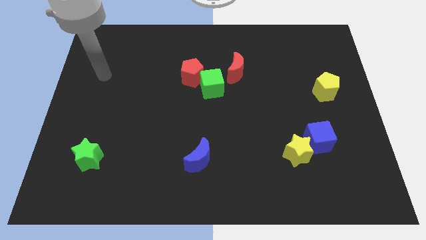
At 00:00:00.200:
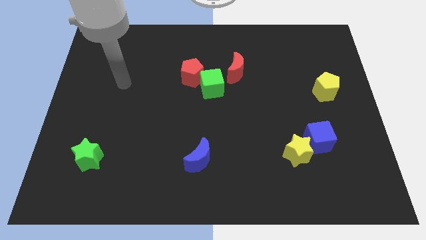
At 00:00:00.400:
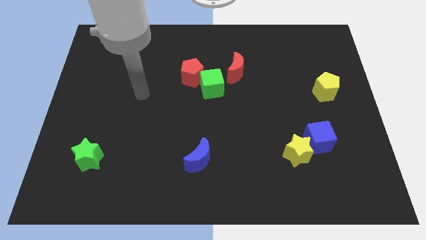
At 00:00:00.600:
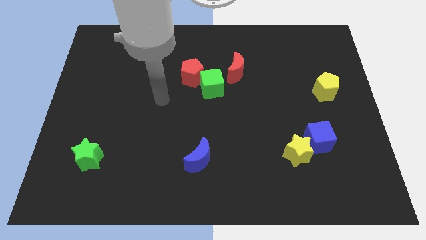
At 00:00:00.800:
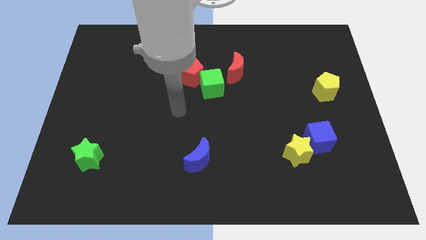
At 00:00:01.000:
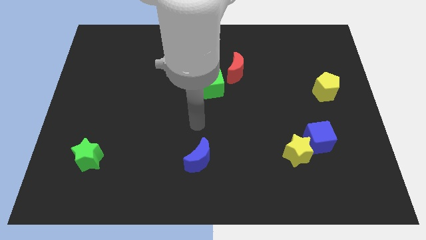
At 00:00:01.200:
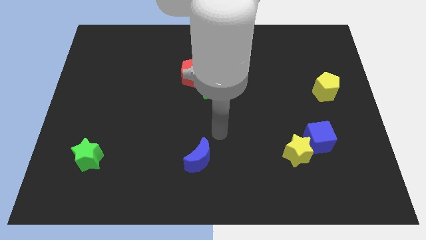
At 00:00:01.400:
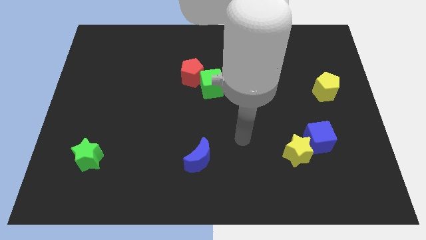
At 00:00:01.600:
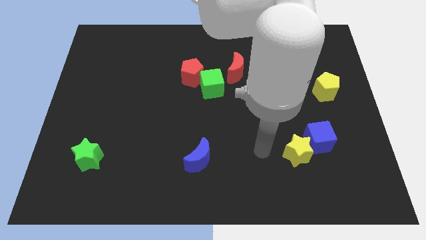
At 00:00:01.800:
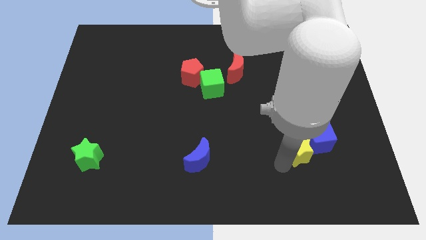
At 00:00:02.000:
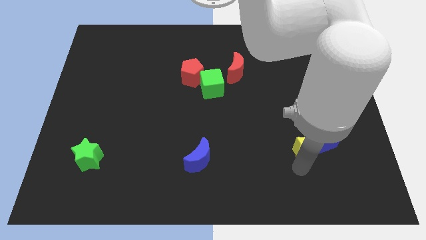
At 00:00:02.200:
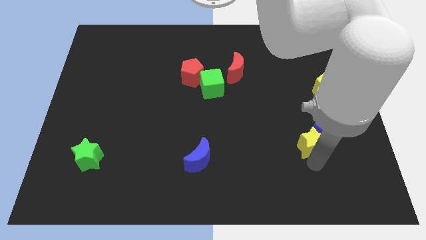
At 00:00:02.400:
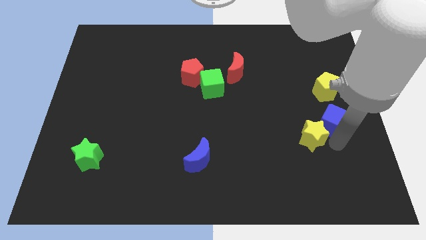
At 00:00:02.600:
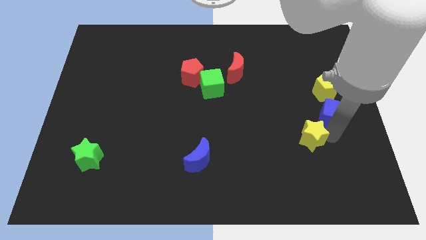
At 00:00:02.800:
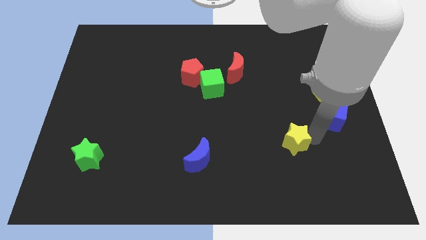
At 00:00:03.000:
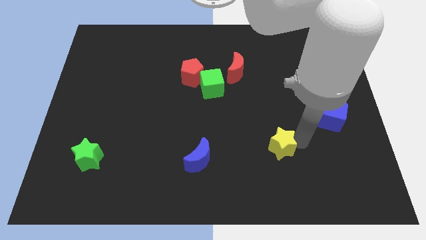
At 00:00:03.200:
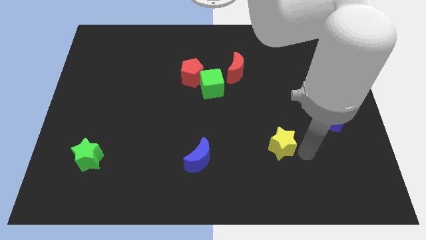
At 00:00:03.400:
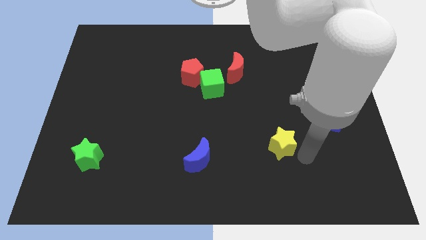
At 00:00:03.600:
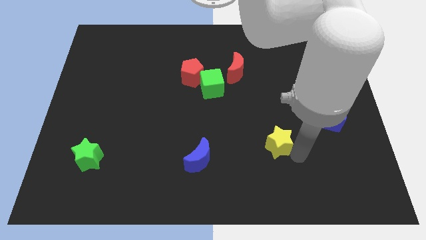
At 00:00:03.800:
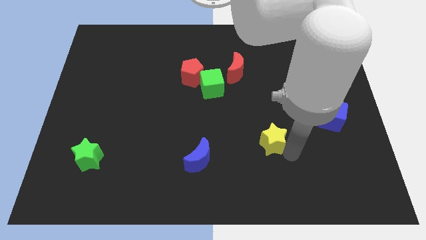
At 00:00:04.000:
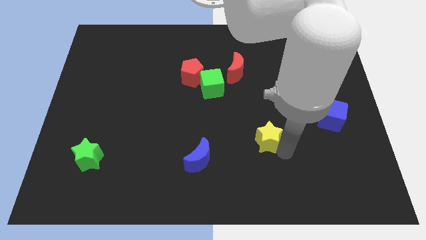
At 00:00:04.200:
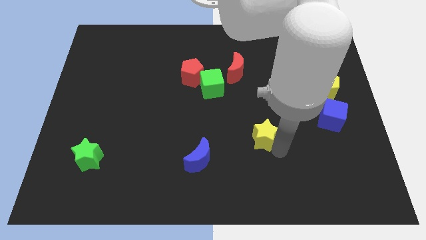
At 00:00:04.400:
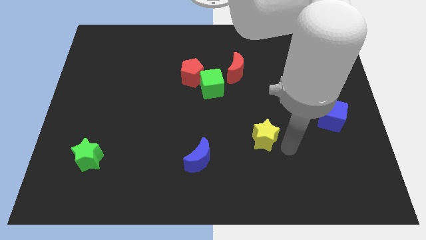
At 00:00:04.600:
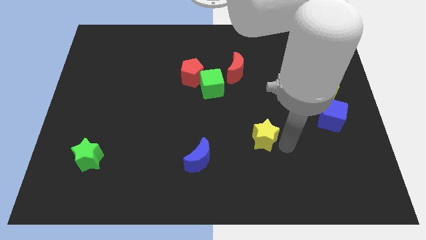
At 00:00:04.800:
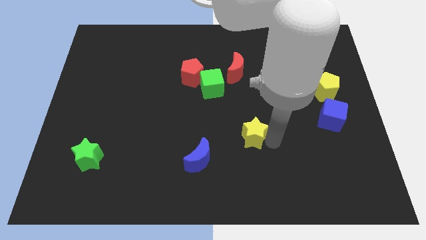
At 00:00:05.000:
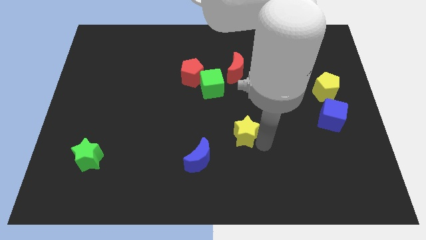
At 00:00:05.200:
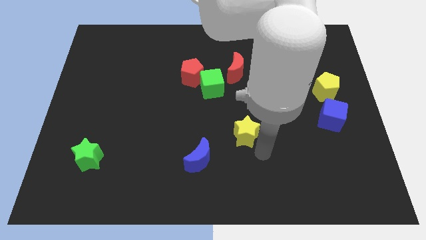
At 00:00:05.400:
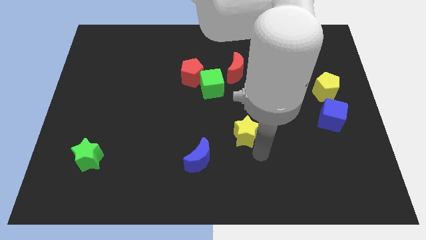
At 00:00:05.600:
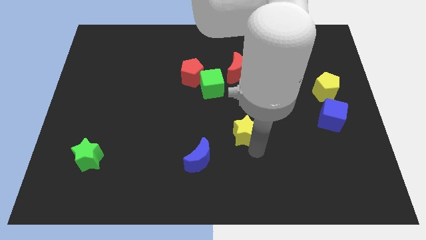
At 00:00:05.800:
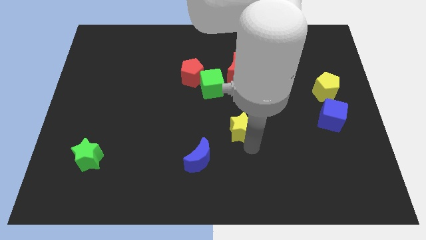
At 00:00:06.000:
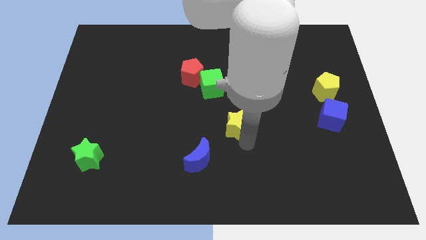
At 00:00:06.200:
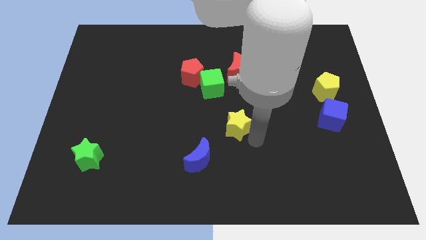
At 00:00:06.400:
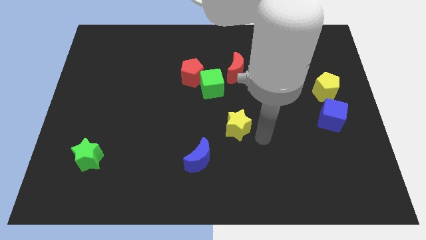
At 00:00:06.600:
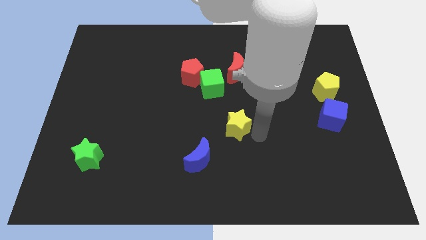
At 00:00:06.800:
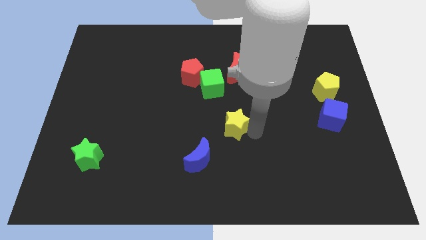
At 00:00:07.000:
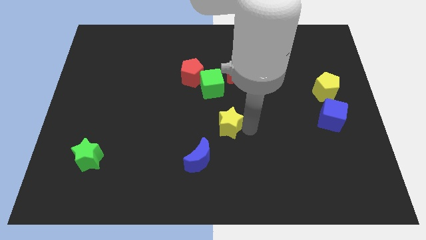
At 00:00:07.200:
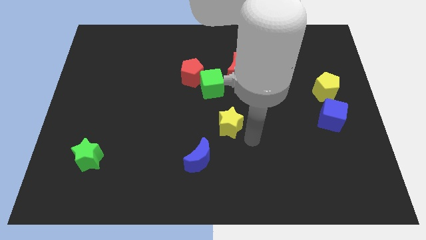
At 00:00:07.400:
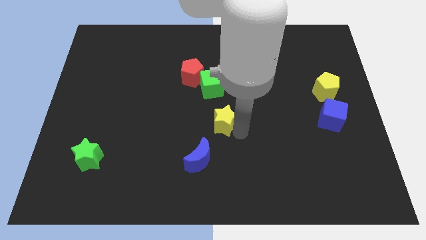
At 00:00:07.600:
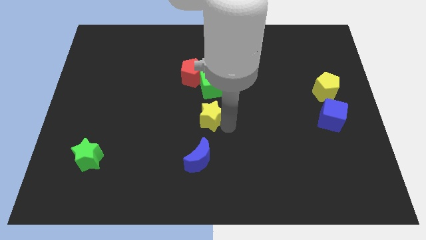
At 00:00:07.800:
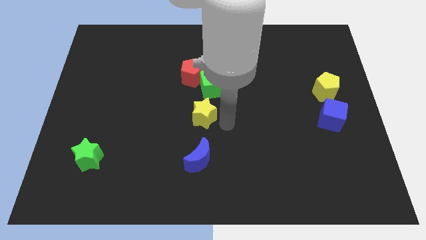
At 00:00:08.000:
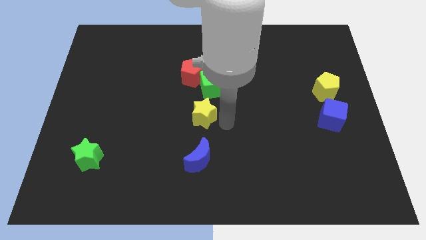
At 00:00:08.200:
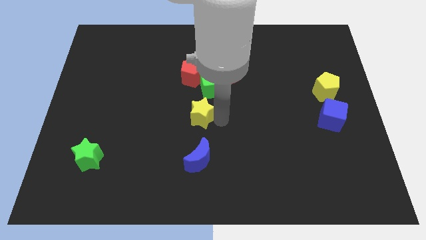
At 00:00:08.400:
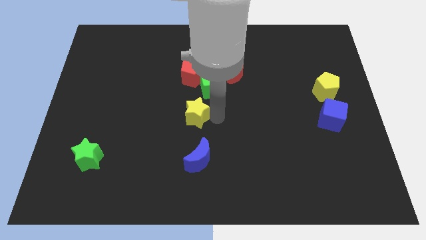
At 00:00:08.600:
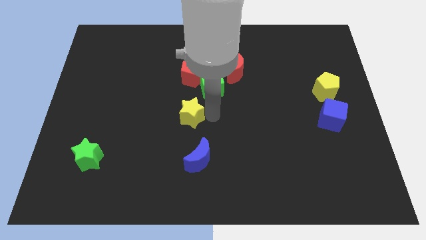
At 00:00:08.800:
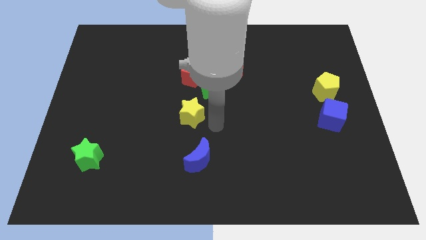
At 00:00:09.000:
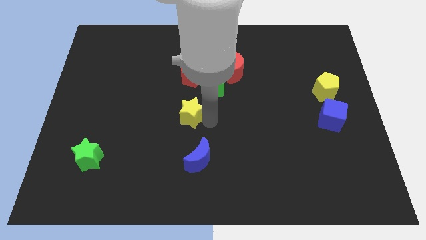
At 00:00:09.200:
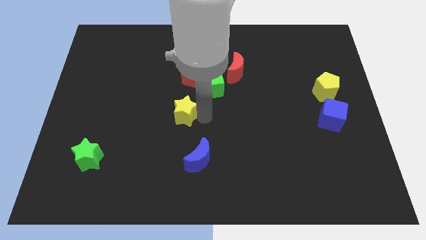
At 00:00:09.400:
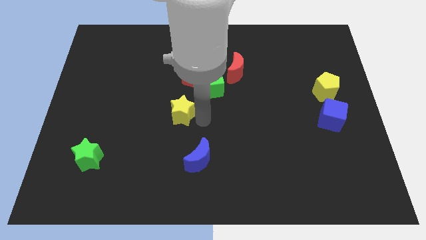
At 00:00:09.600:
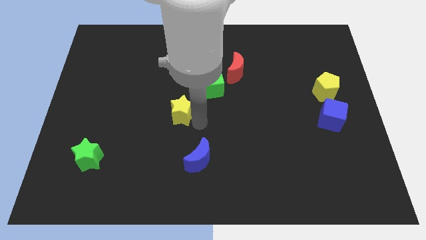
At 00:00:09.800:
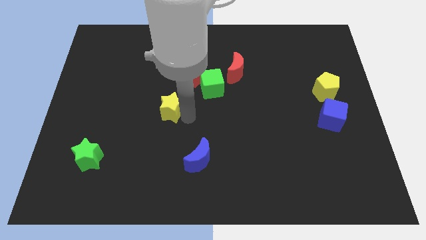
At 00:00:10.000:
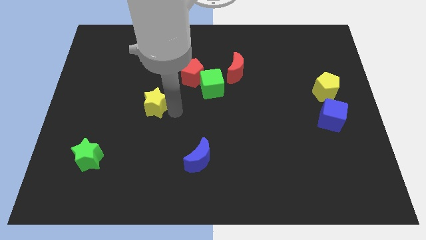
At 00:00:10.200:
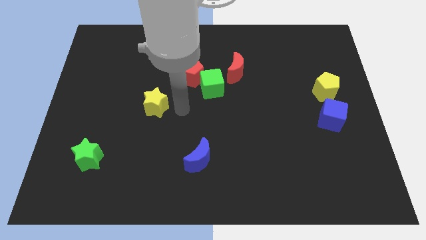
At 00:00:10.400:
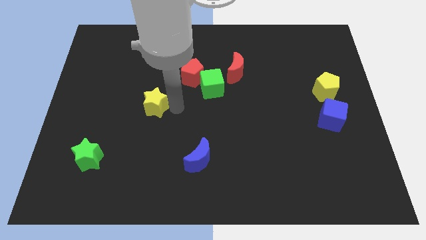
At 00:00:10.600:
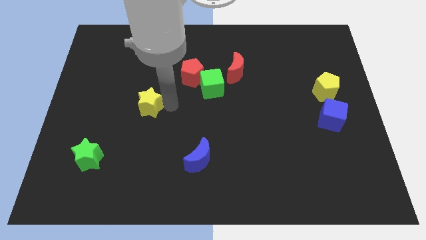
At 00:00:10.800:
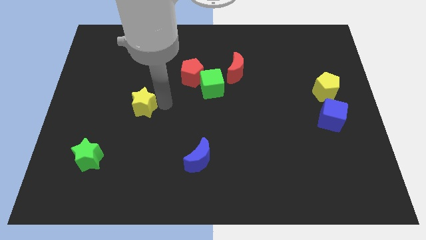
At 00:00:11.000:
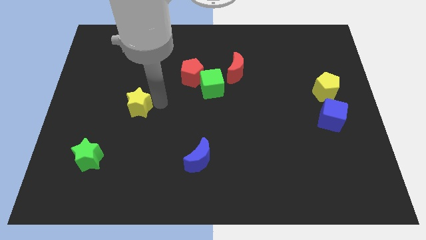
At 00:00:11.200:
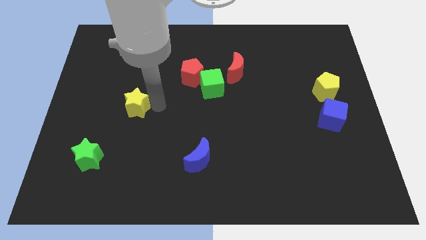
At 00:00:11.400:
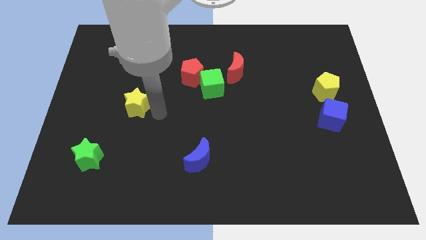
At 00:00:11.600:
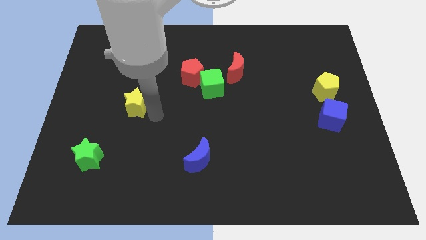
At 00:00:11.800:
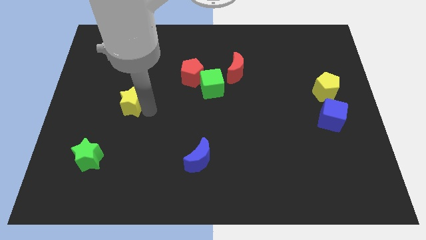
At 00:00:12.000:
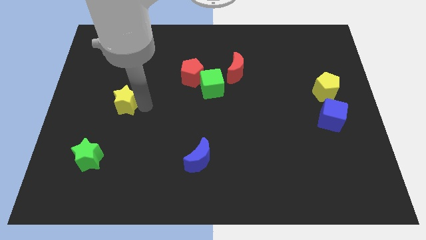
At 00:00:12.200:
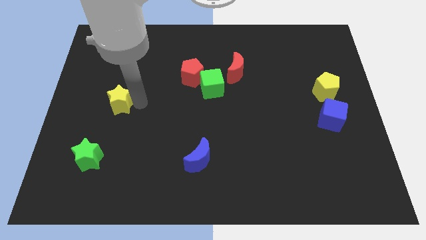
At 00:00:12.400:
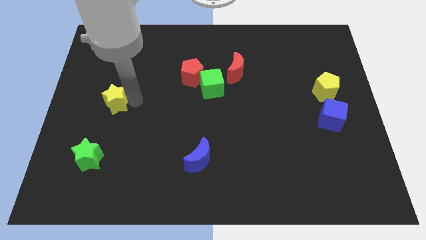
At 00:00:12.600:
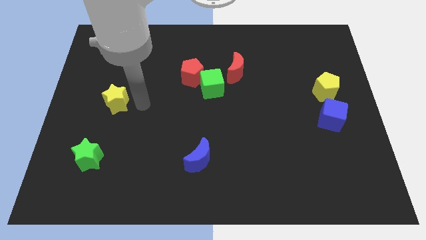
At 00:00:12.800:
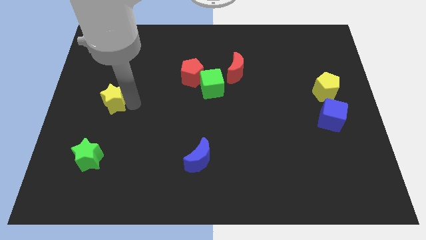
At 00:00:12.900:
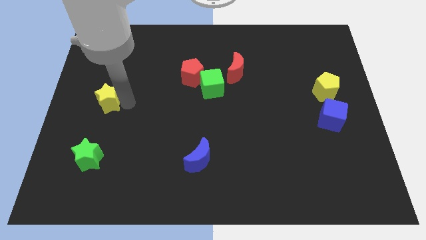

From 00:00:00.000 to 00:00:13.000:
slide the yellow star to the left side of the board
